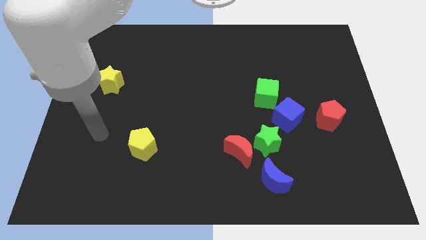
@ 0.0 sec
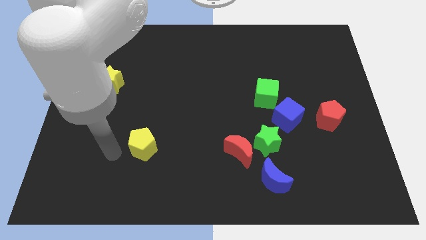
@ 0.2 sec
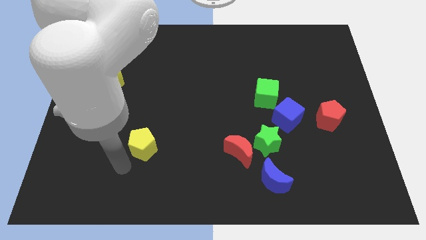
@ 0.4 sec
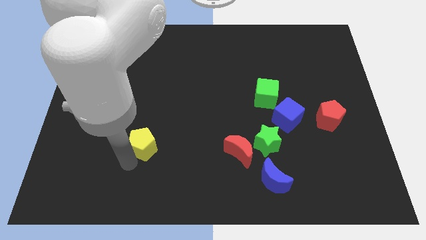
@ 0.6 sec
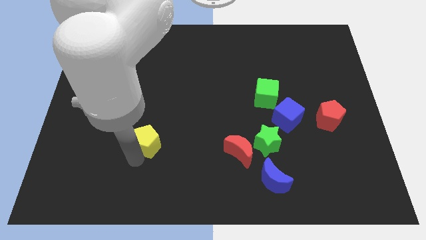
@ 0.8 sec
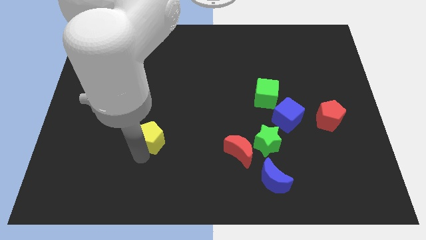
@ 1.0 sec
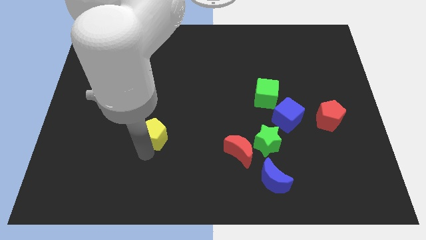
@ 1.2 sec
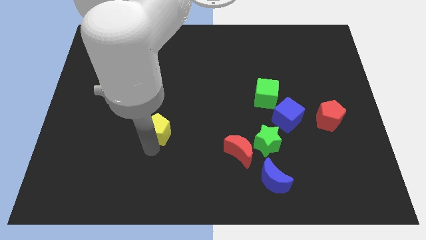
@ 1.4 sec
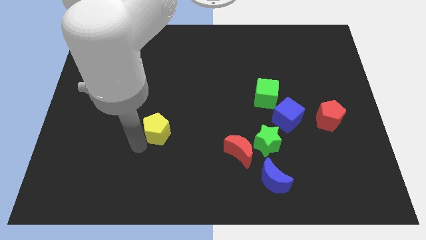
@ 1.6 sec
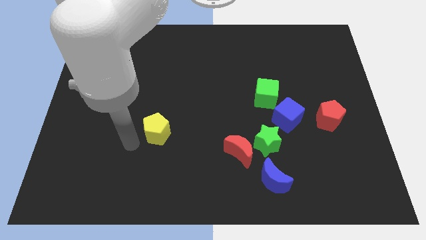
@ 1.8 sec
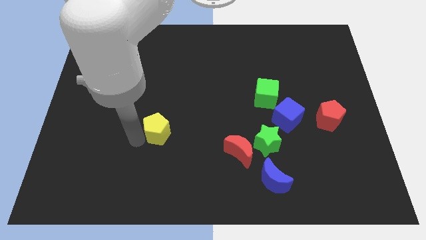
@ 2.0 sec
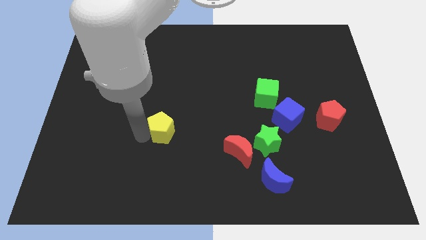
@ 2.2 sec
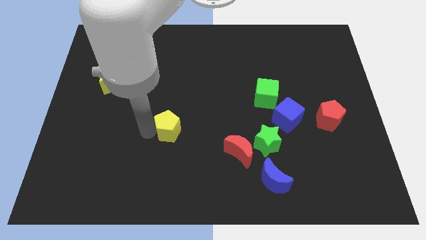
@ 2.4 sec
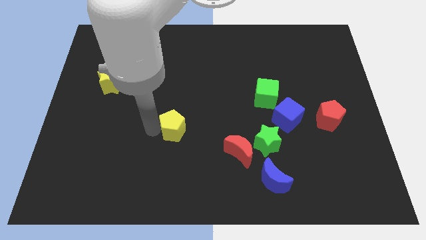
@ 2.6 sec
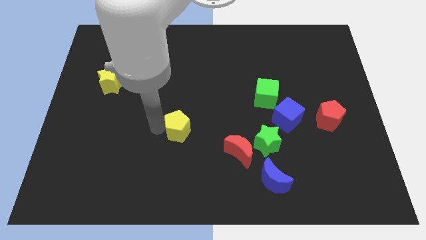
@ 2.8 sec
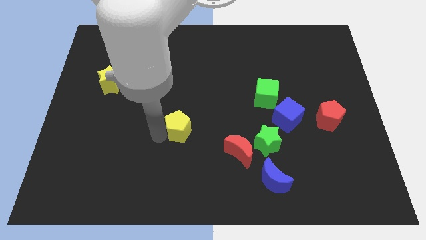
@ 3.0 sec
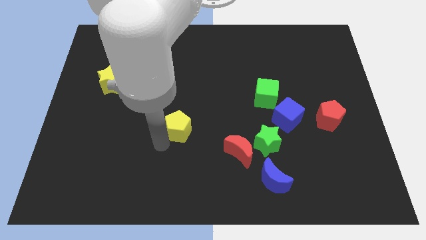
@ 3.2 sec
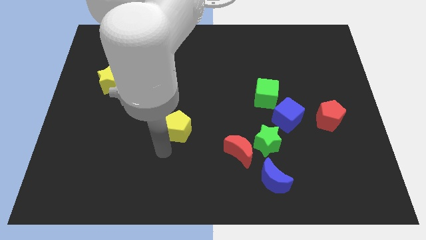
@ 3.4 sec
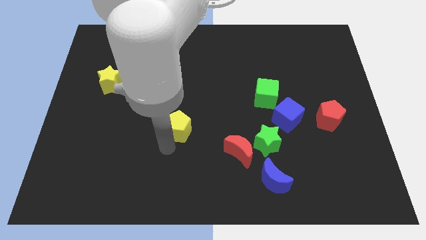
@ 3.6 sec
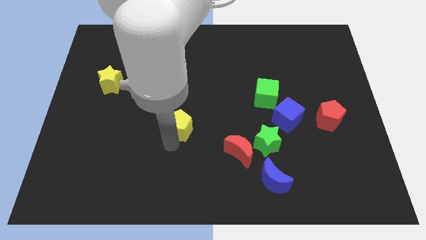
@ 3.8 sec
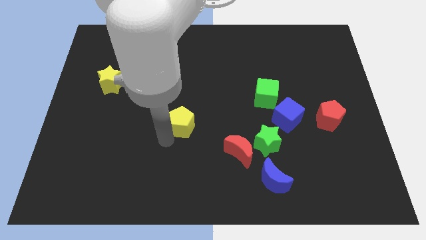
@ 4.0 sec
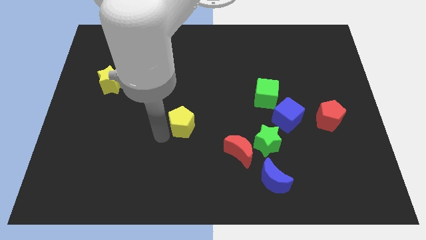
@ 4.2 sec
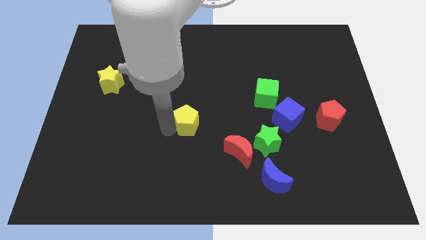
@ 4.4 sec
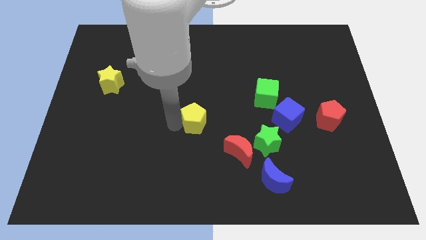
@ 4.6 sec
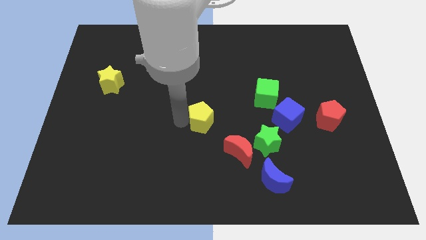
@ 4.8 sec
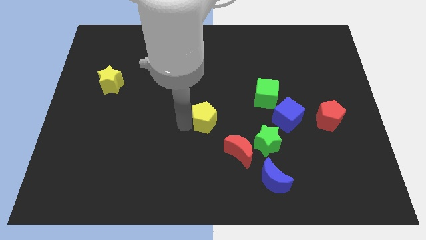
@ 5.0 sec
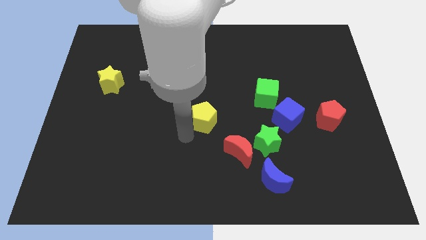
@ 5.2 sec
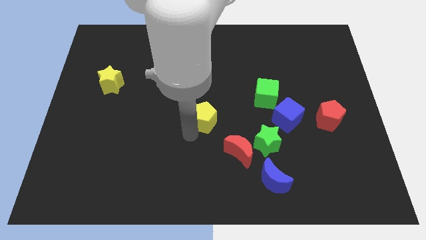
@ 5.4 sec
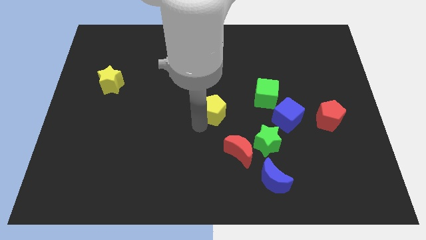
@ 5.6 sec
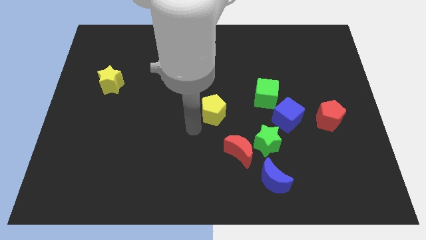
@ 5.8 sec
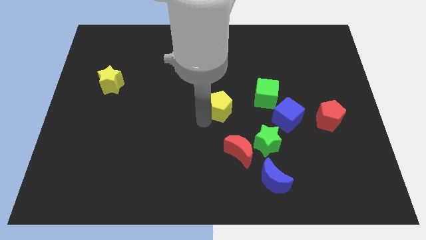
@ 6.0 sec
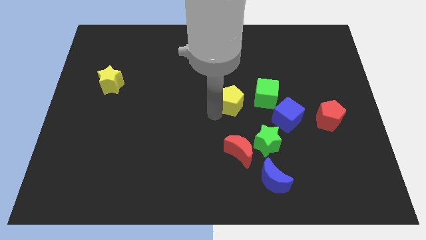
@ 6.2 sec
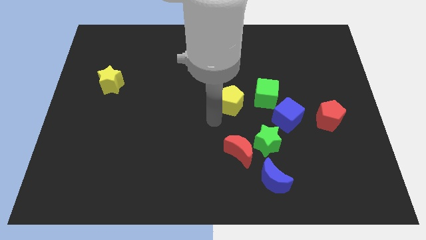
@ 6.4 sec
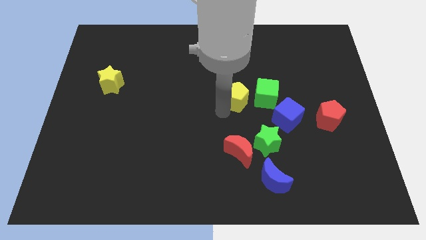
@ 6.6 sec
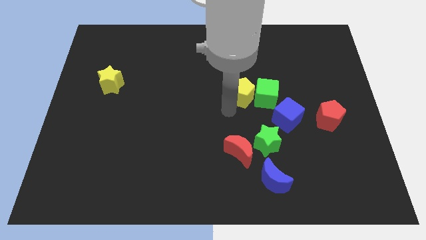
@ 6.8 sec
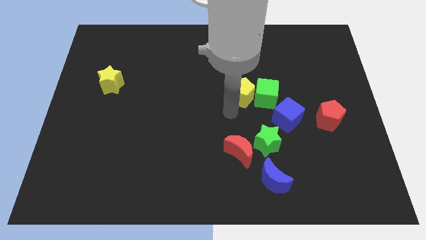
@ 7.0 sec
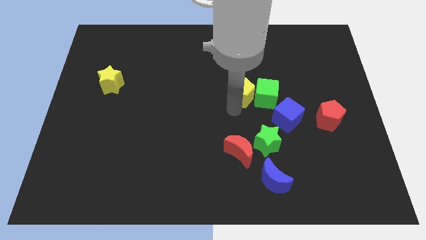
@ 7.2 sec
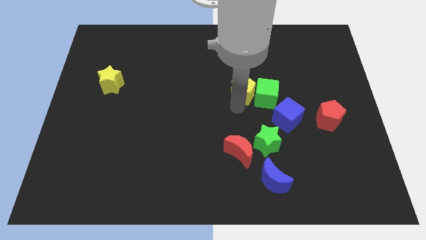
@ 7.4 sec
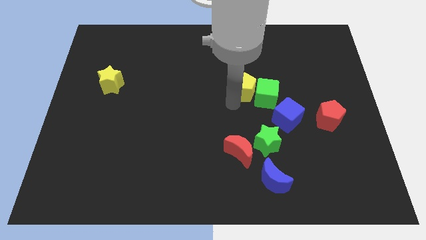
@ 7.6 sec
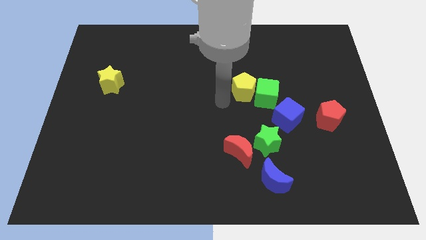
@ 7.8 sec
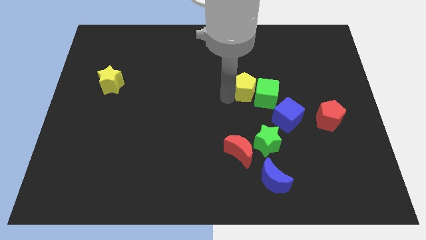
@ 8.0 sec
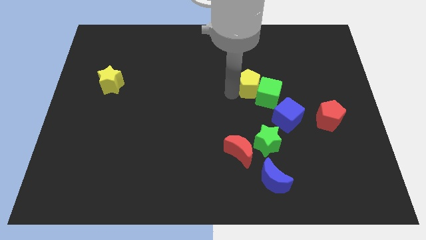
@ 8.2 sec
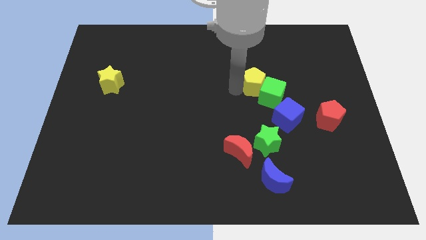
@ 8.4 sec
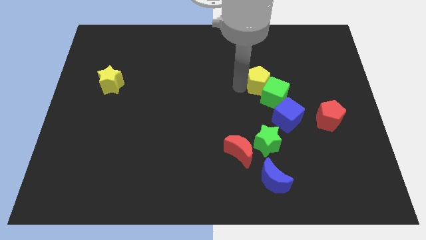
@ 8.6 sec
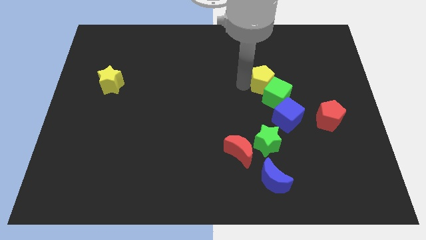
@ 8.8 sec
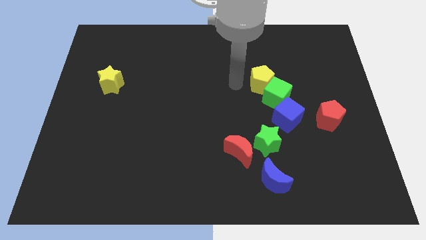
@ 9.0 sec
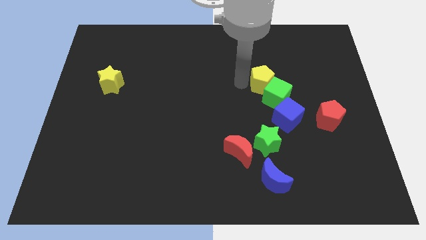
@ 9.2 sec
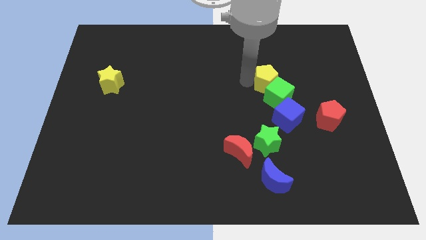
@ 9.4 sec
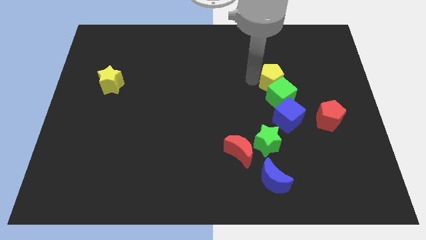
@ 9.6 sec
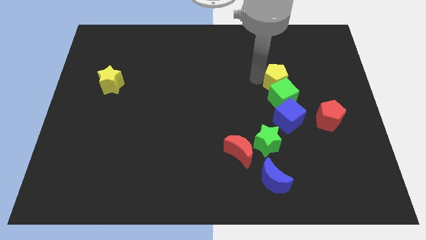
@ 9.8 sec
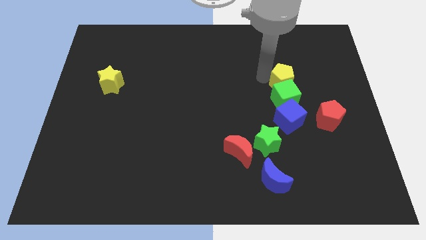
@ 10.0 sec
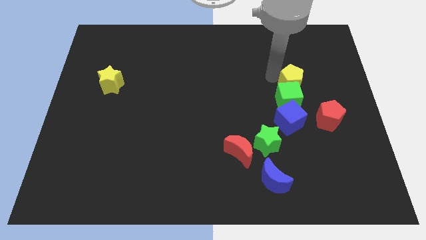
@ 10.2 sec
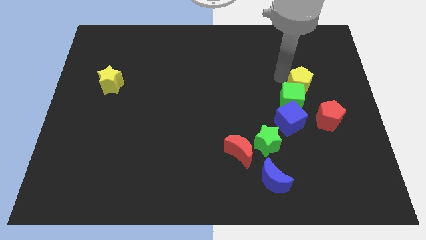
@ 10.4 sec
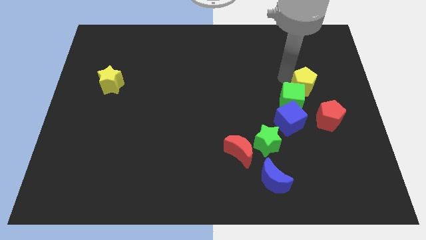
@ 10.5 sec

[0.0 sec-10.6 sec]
put the yellow pentagon to the right side of the green cube

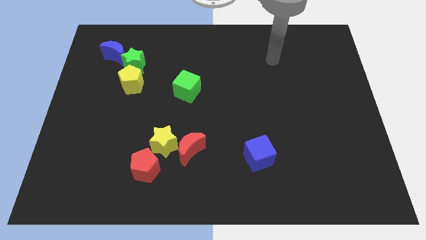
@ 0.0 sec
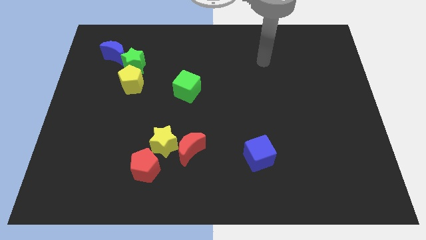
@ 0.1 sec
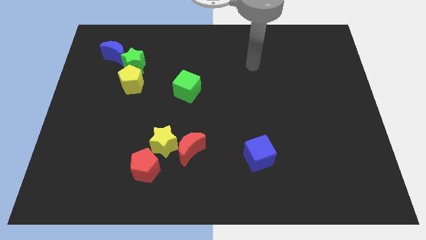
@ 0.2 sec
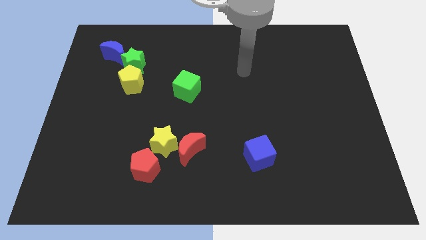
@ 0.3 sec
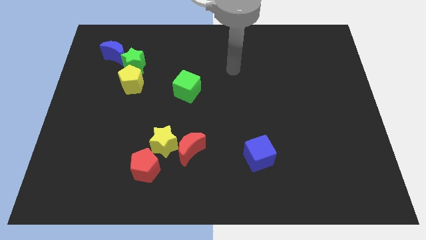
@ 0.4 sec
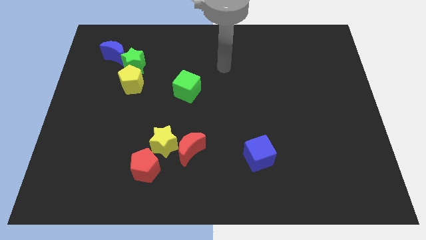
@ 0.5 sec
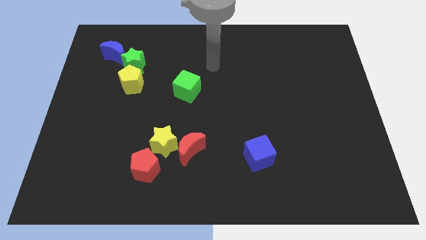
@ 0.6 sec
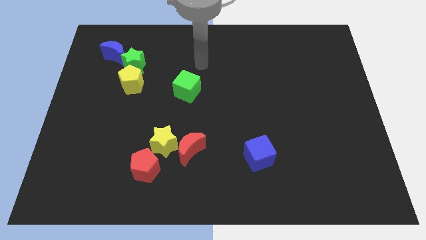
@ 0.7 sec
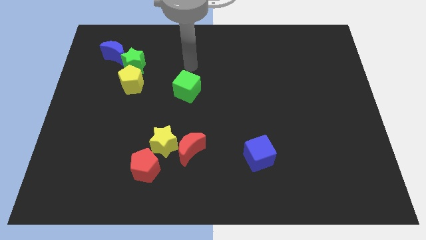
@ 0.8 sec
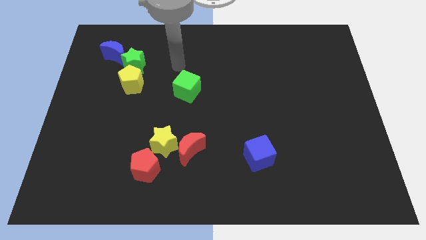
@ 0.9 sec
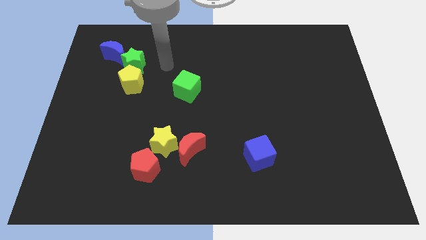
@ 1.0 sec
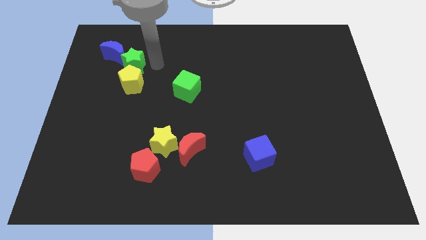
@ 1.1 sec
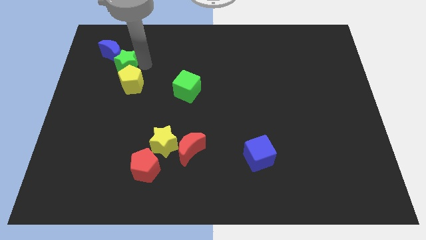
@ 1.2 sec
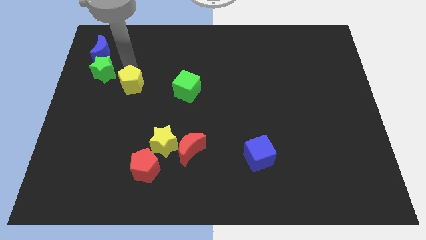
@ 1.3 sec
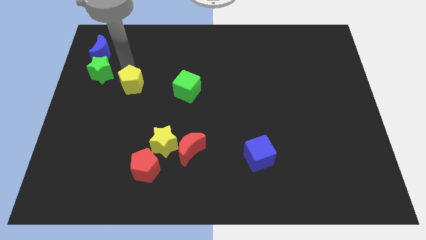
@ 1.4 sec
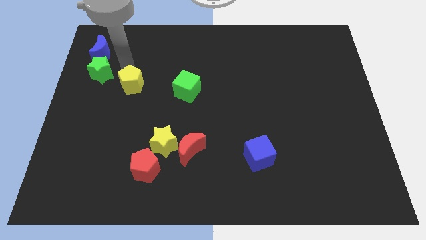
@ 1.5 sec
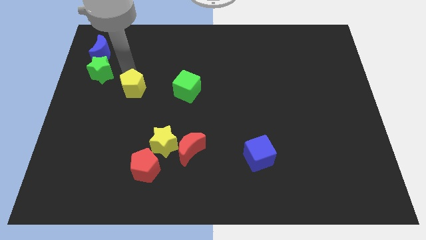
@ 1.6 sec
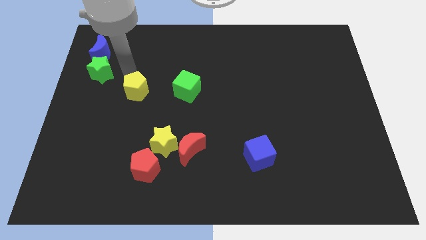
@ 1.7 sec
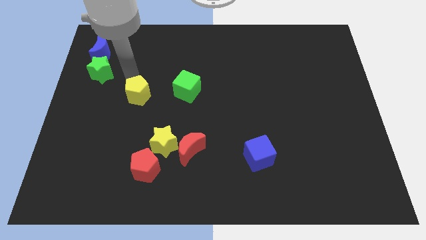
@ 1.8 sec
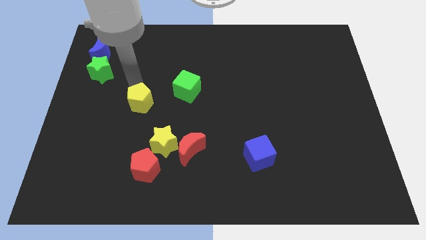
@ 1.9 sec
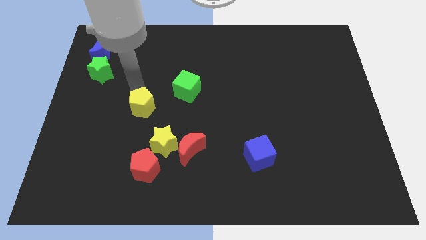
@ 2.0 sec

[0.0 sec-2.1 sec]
push the yellow pentagon to the top left of the yellow star
